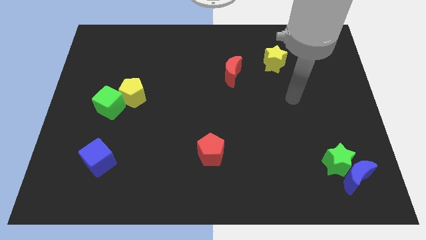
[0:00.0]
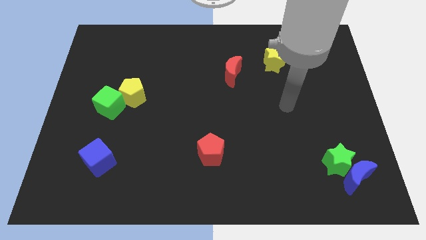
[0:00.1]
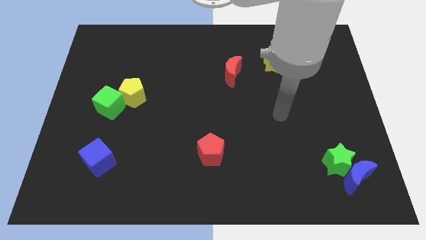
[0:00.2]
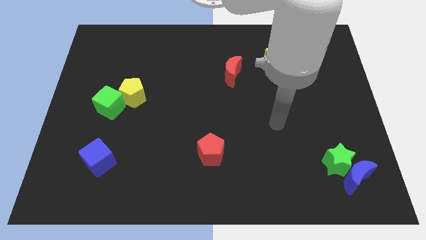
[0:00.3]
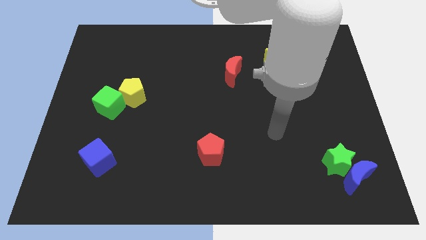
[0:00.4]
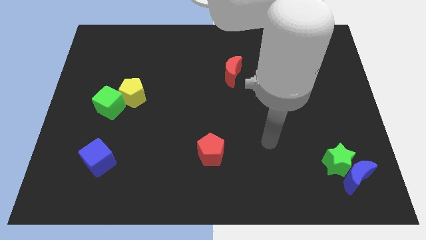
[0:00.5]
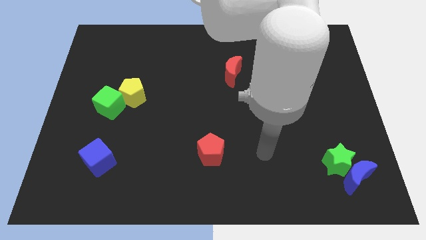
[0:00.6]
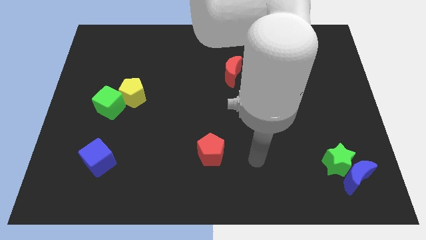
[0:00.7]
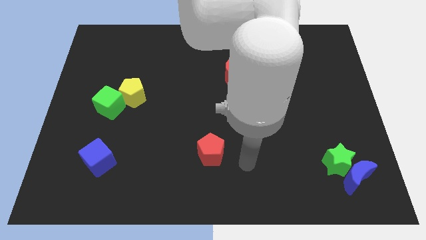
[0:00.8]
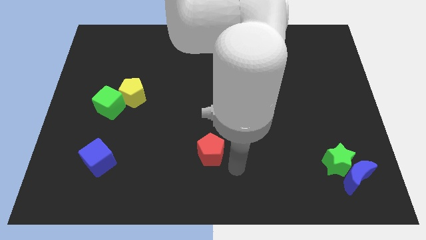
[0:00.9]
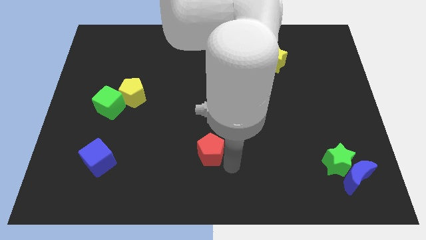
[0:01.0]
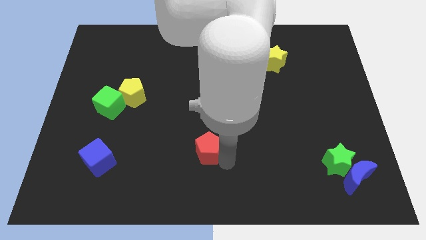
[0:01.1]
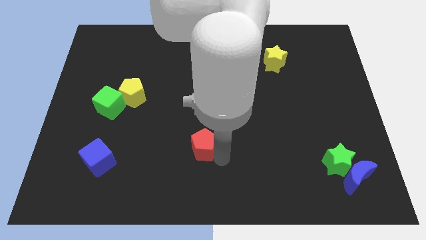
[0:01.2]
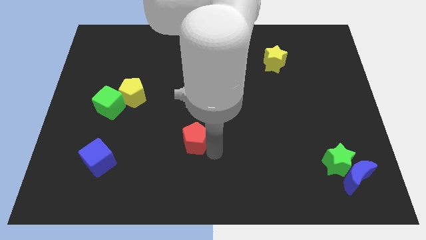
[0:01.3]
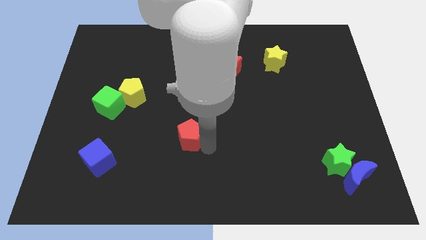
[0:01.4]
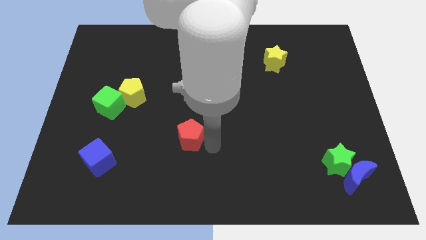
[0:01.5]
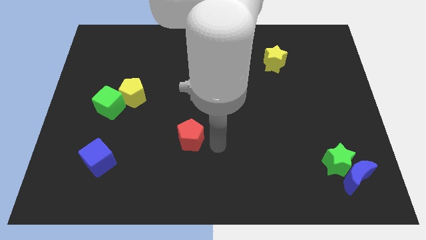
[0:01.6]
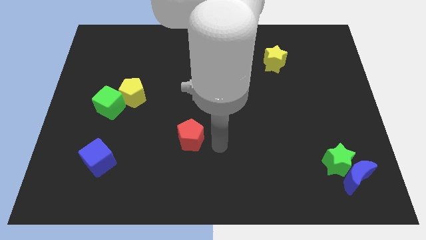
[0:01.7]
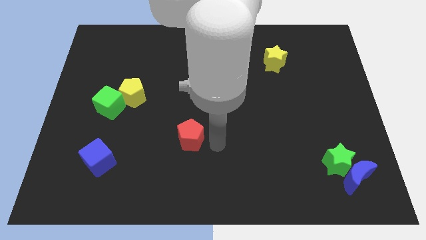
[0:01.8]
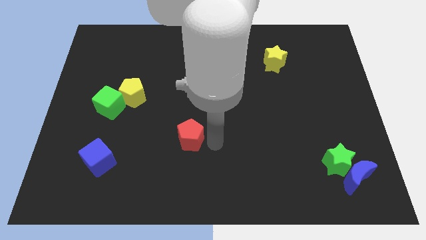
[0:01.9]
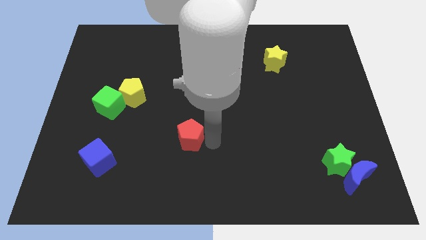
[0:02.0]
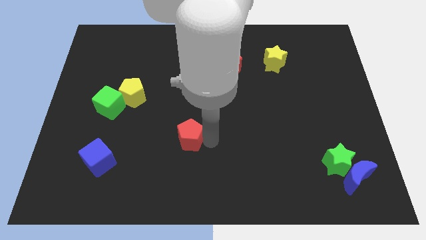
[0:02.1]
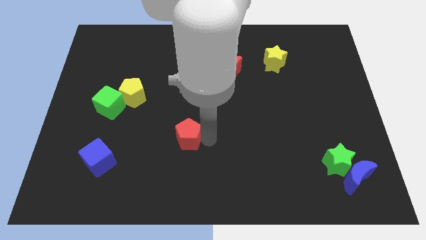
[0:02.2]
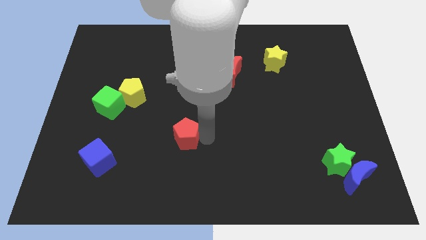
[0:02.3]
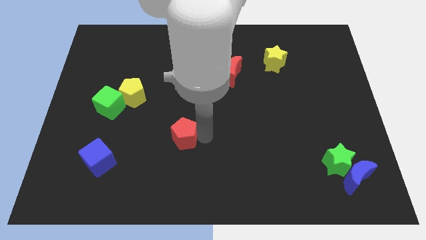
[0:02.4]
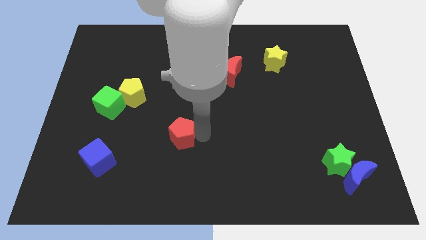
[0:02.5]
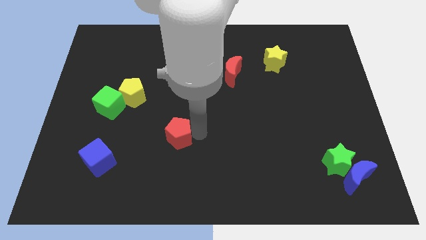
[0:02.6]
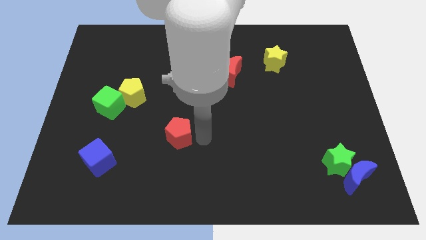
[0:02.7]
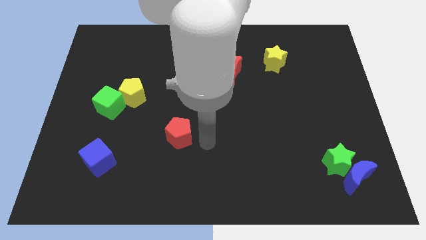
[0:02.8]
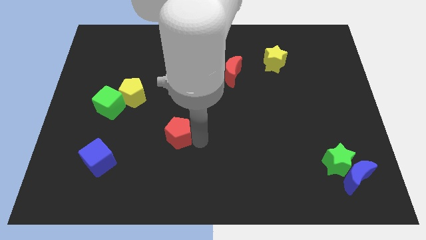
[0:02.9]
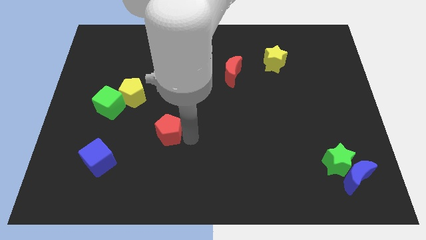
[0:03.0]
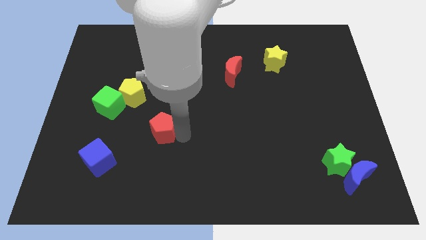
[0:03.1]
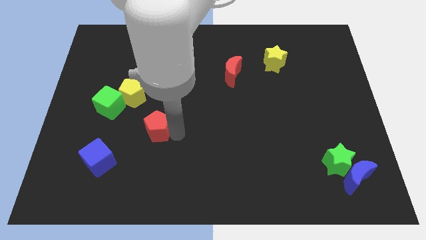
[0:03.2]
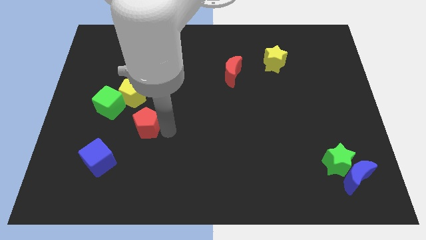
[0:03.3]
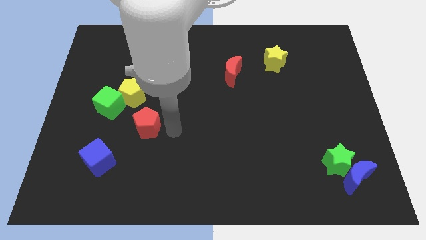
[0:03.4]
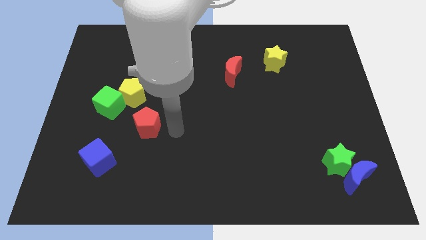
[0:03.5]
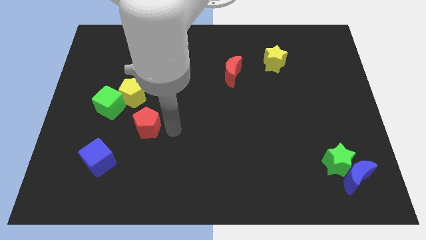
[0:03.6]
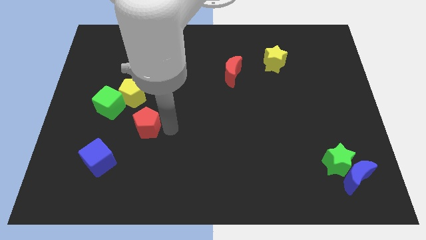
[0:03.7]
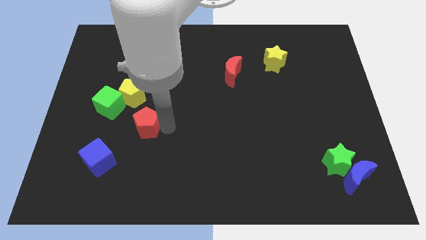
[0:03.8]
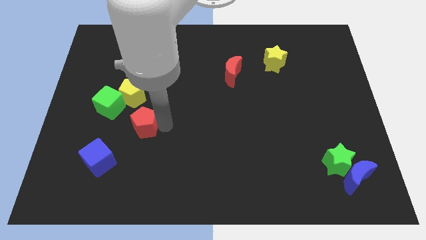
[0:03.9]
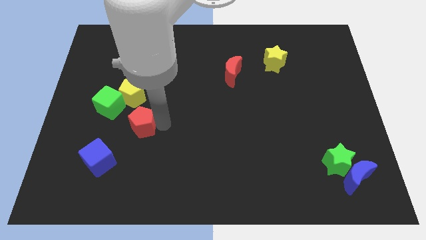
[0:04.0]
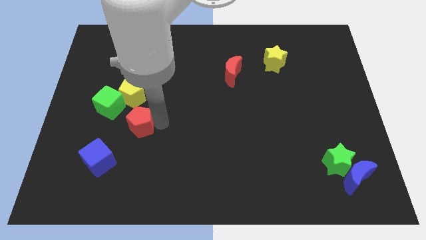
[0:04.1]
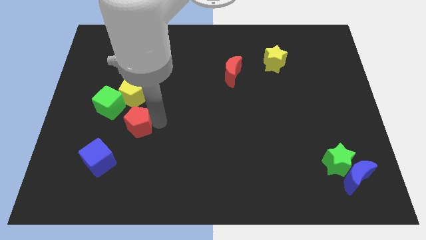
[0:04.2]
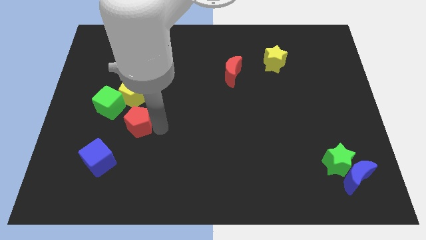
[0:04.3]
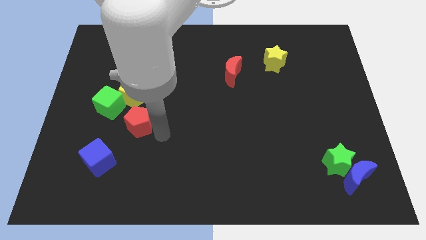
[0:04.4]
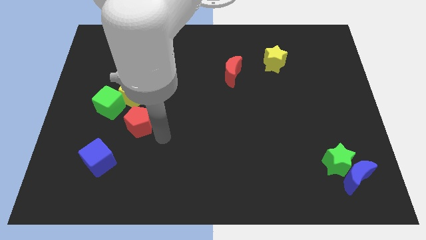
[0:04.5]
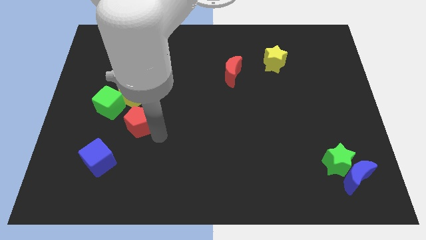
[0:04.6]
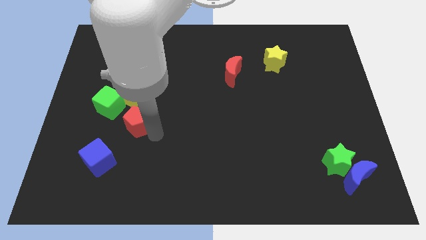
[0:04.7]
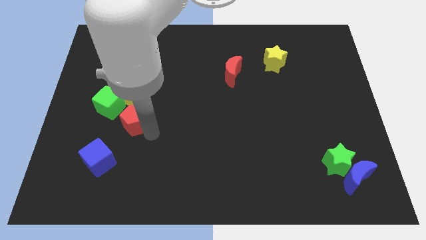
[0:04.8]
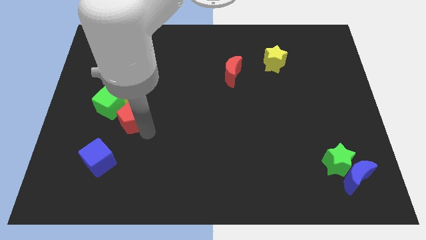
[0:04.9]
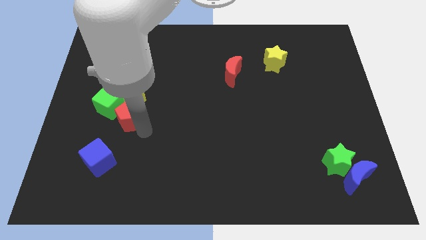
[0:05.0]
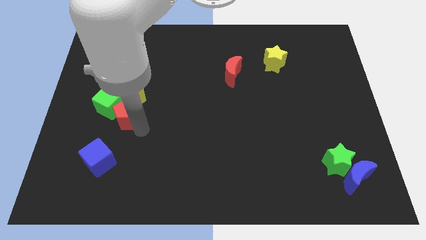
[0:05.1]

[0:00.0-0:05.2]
slide the red pentagon next to the green cube

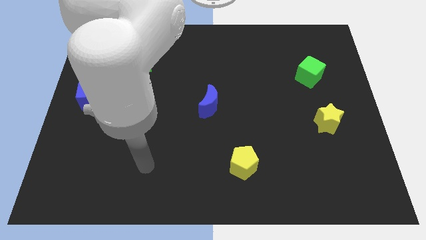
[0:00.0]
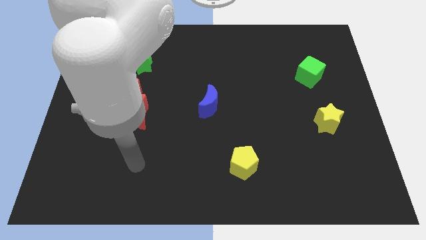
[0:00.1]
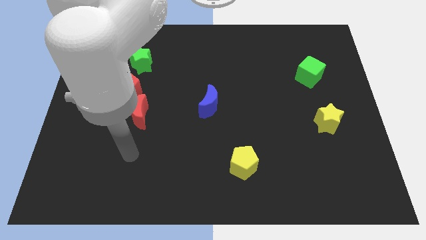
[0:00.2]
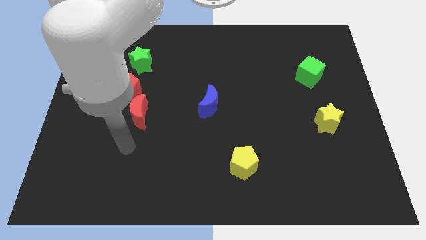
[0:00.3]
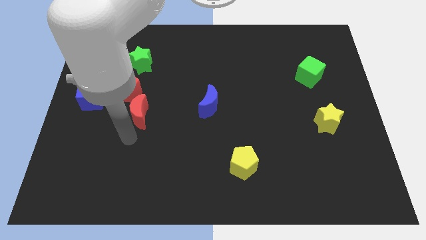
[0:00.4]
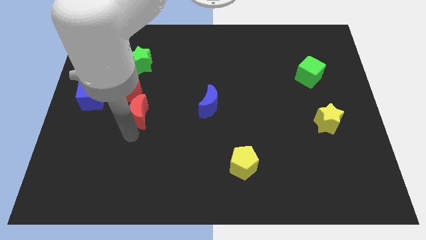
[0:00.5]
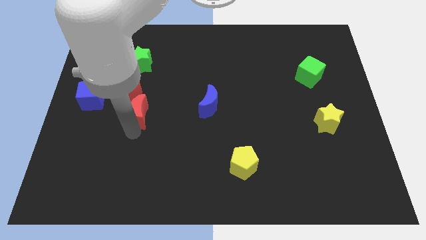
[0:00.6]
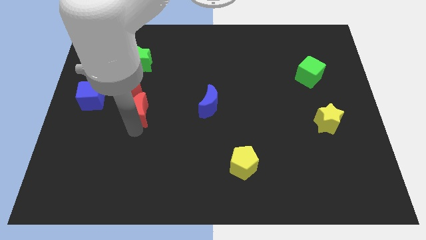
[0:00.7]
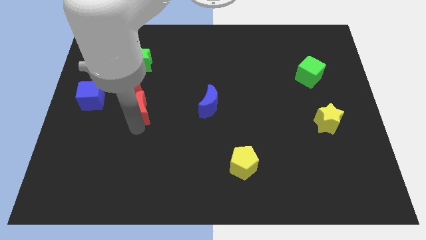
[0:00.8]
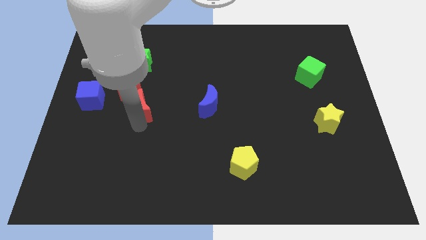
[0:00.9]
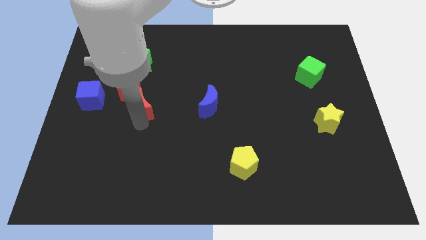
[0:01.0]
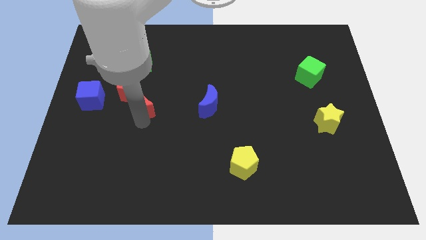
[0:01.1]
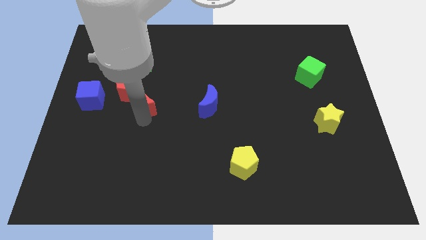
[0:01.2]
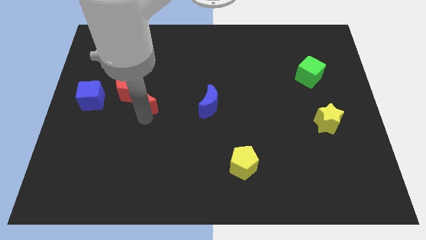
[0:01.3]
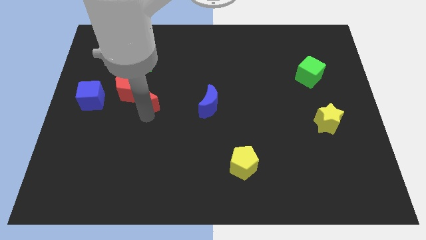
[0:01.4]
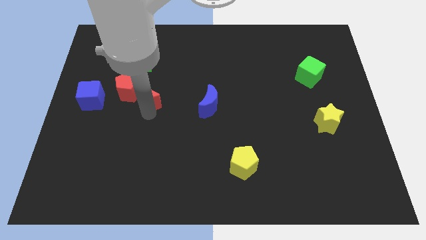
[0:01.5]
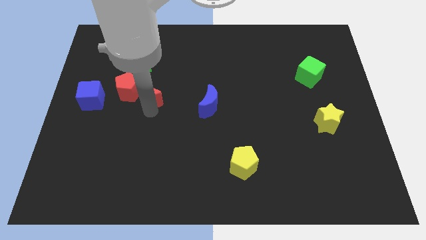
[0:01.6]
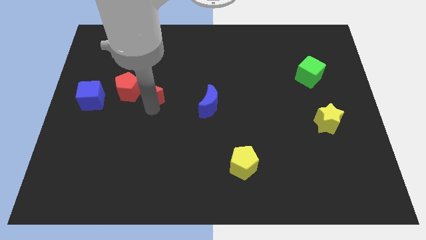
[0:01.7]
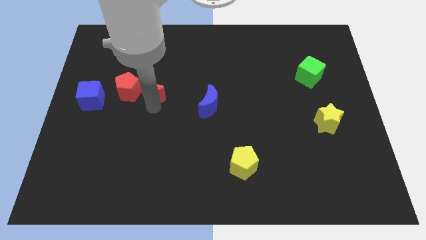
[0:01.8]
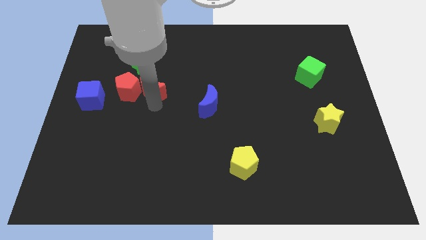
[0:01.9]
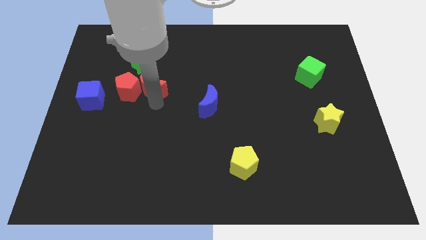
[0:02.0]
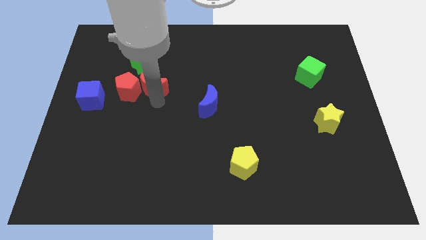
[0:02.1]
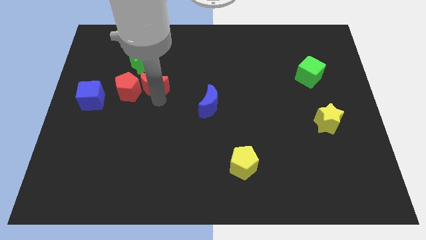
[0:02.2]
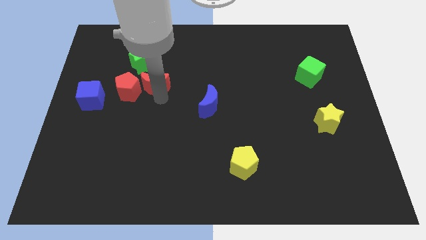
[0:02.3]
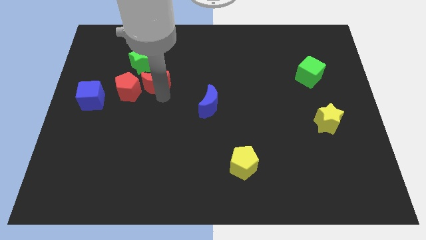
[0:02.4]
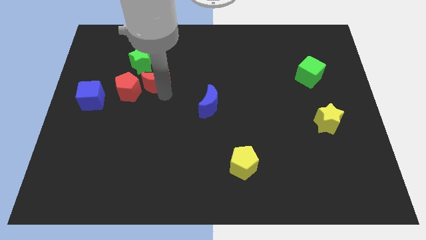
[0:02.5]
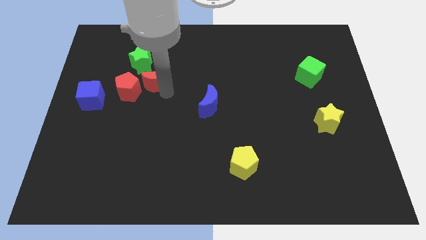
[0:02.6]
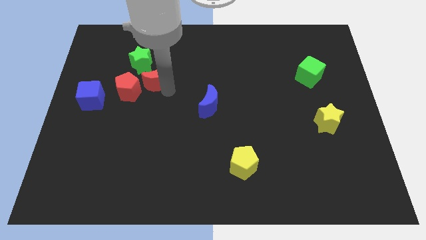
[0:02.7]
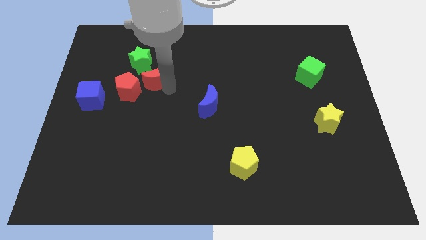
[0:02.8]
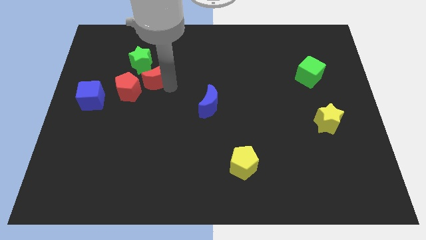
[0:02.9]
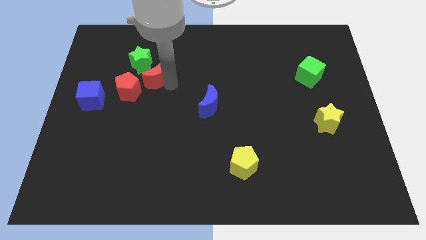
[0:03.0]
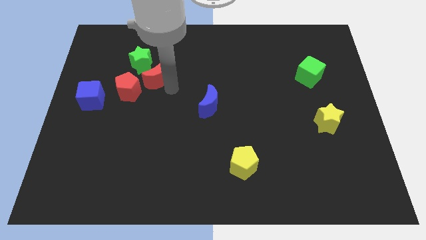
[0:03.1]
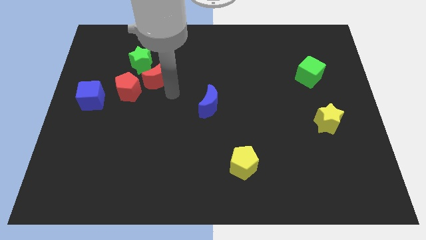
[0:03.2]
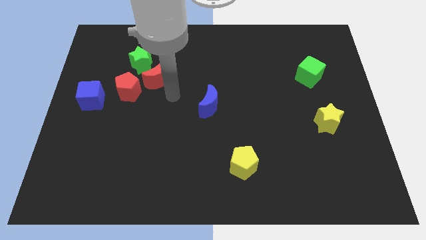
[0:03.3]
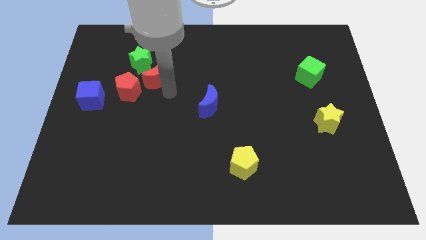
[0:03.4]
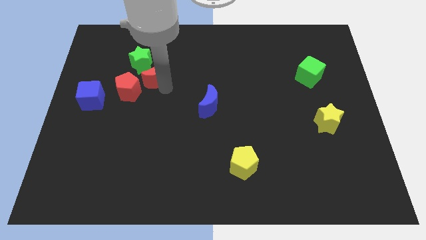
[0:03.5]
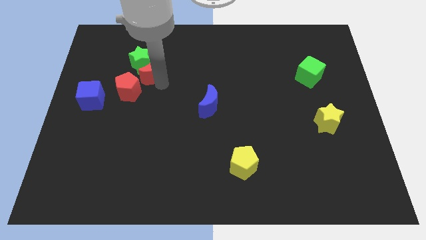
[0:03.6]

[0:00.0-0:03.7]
put the red moon towards the green star
